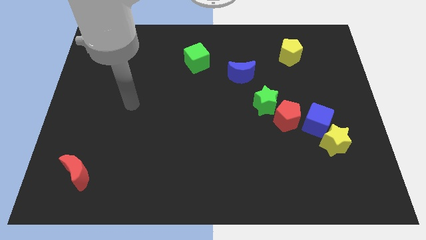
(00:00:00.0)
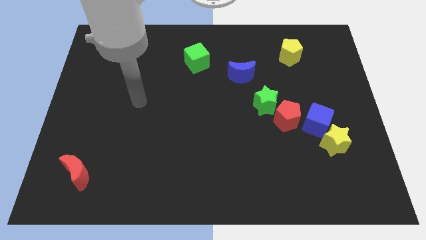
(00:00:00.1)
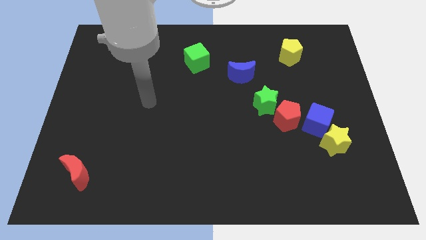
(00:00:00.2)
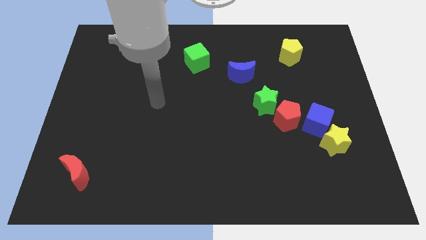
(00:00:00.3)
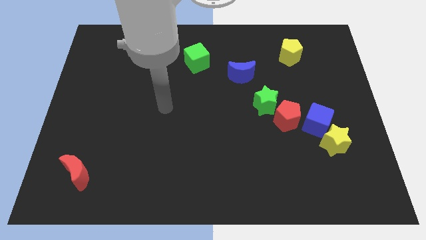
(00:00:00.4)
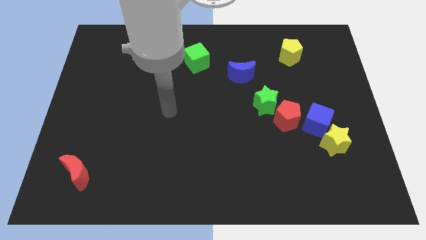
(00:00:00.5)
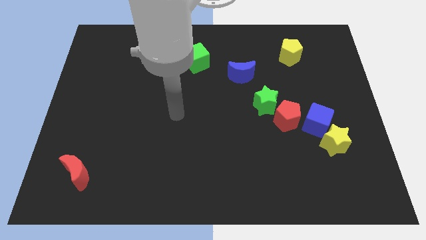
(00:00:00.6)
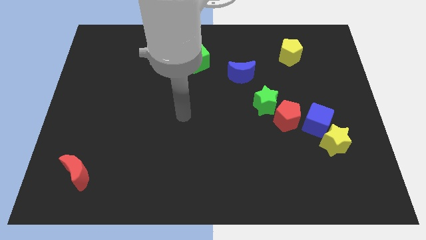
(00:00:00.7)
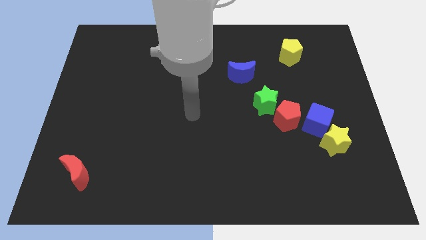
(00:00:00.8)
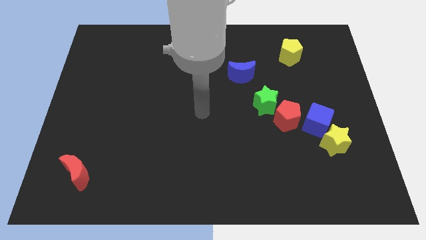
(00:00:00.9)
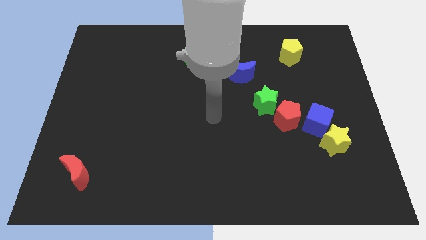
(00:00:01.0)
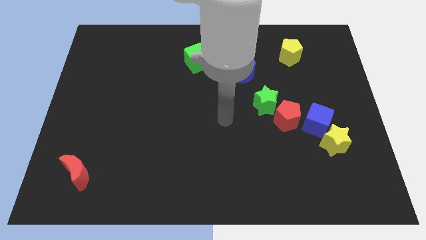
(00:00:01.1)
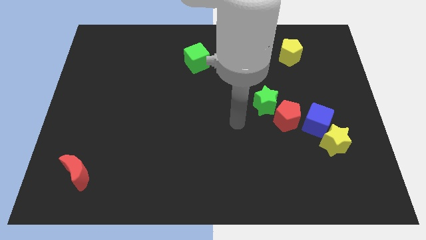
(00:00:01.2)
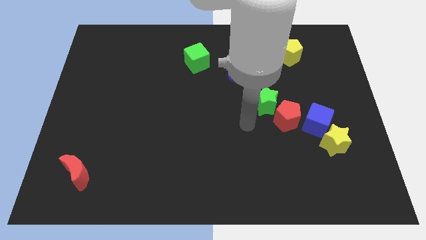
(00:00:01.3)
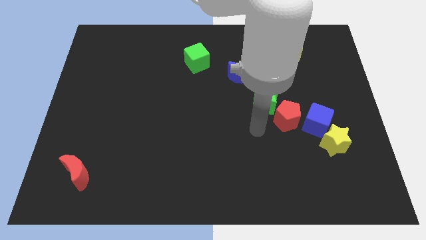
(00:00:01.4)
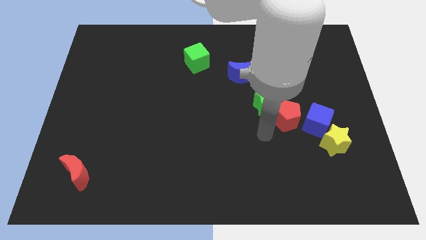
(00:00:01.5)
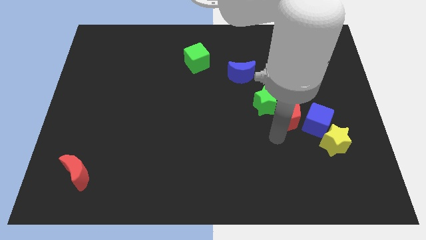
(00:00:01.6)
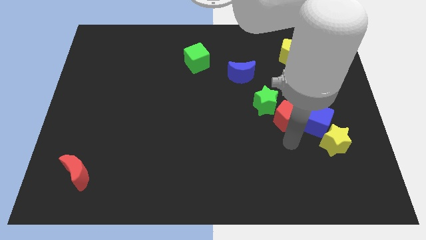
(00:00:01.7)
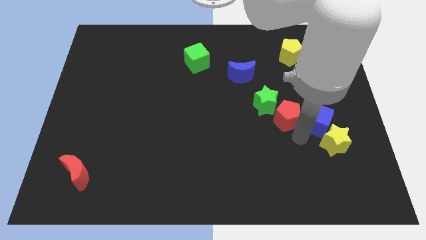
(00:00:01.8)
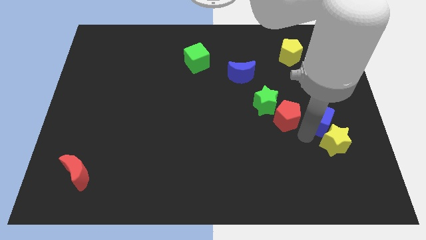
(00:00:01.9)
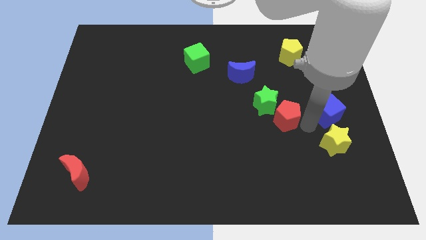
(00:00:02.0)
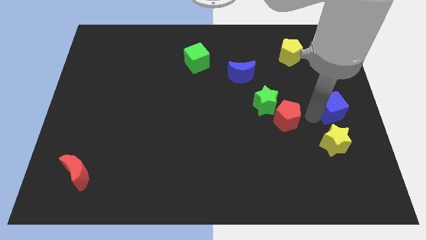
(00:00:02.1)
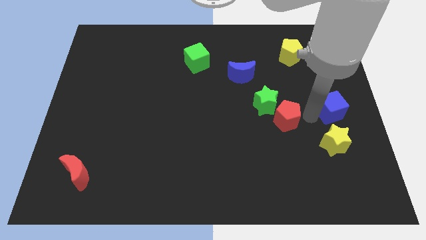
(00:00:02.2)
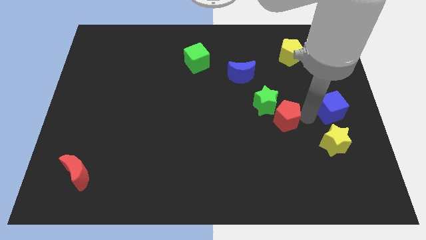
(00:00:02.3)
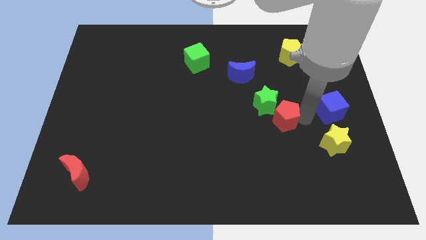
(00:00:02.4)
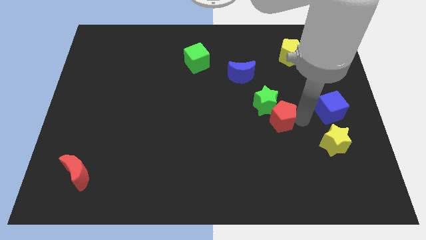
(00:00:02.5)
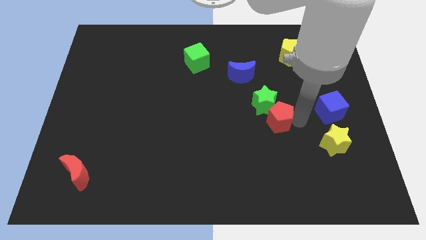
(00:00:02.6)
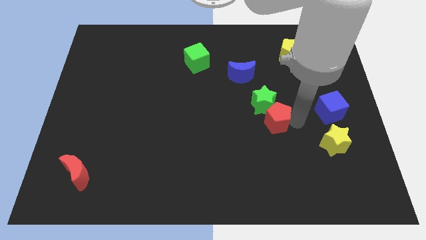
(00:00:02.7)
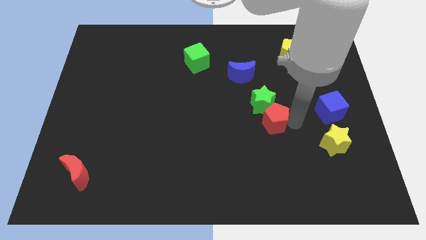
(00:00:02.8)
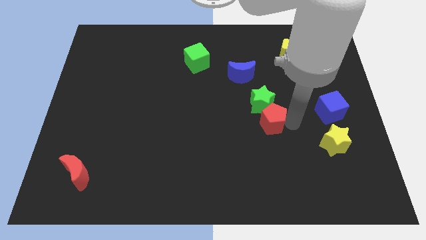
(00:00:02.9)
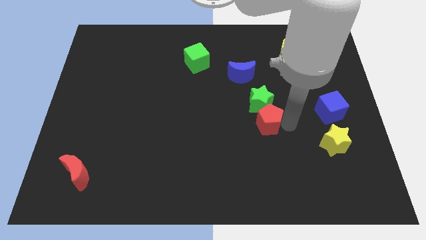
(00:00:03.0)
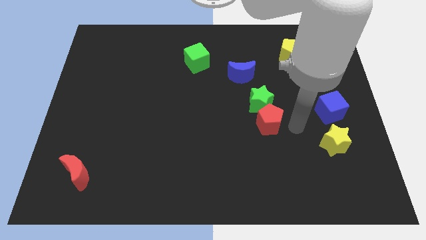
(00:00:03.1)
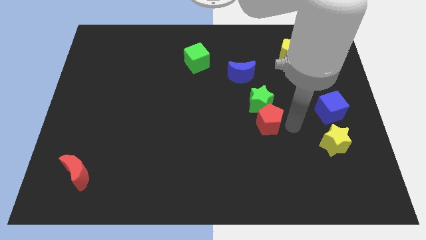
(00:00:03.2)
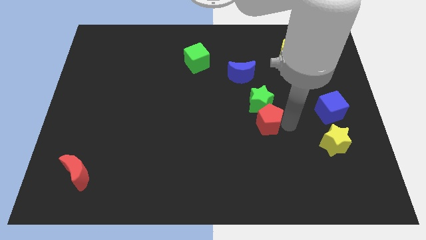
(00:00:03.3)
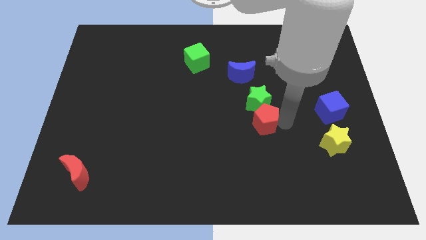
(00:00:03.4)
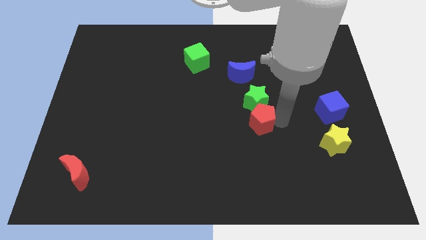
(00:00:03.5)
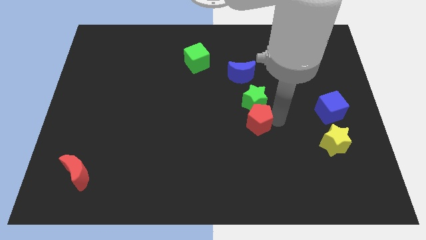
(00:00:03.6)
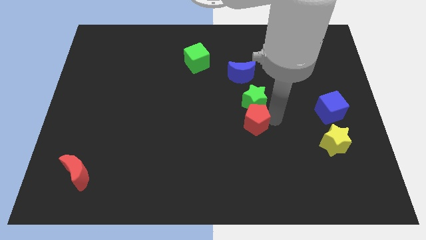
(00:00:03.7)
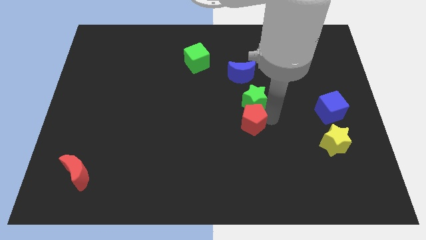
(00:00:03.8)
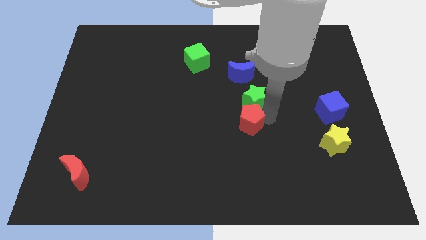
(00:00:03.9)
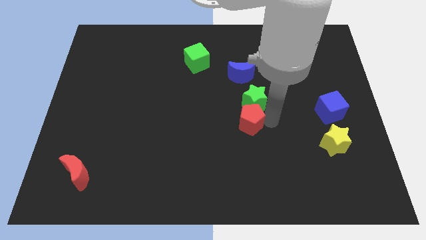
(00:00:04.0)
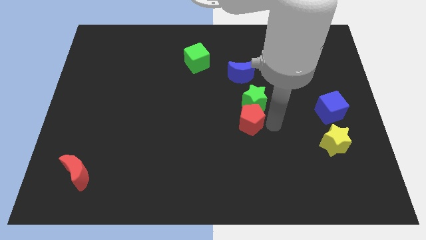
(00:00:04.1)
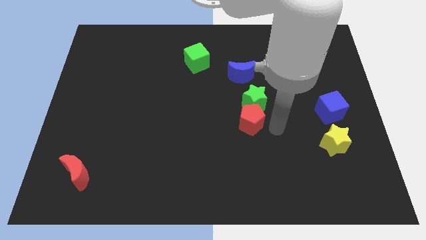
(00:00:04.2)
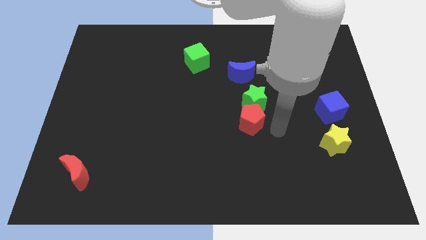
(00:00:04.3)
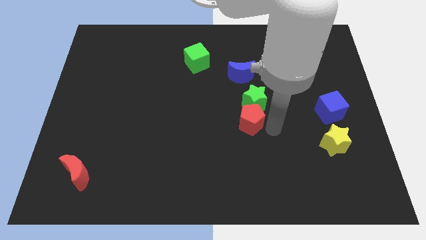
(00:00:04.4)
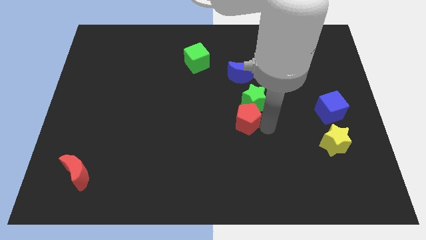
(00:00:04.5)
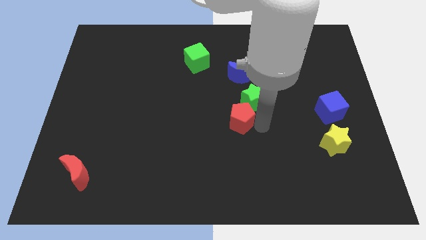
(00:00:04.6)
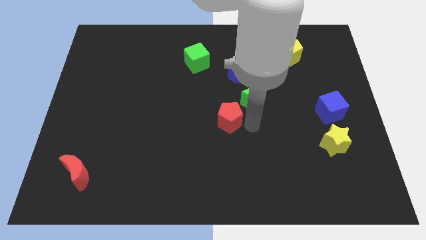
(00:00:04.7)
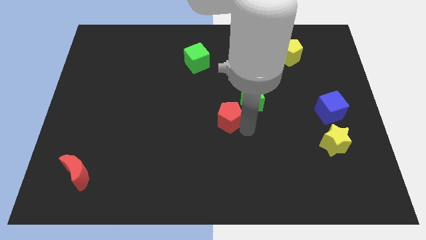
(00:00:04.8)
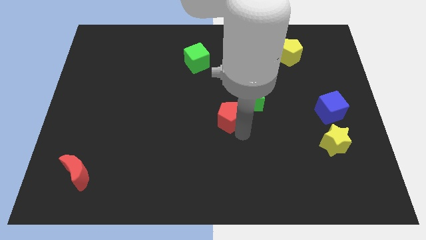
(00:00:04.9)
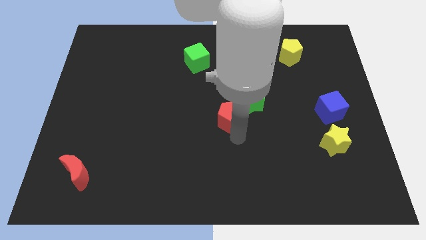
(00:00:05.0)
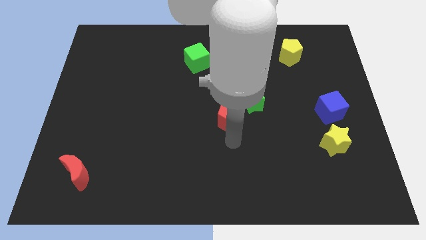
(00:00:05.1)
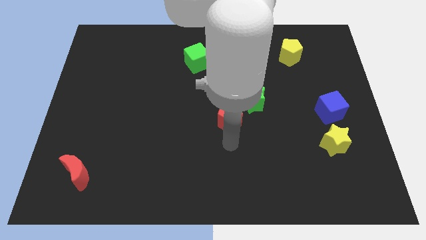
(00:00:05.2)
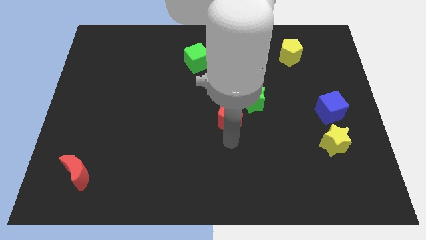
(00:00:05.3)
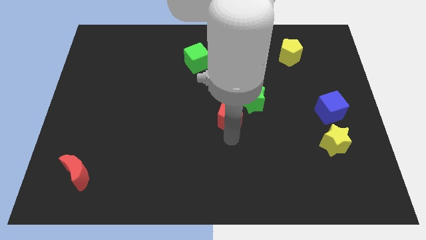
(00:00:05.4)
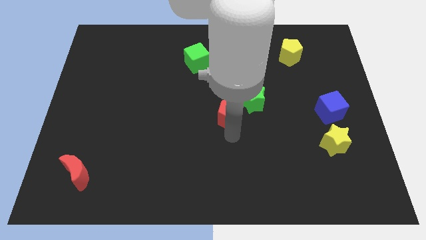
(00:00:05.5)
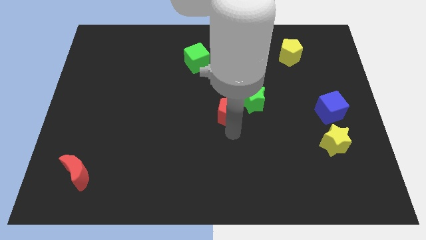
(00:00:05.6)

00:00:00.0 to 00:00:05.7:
slightly move the red pentagon diagonally upwards and to the left

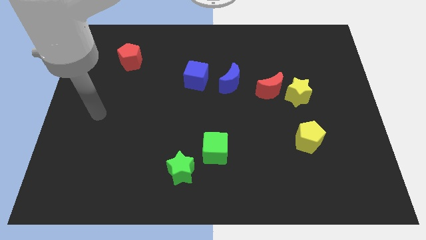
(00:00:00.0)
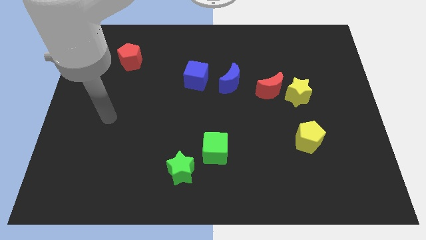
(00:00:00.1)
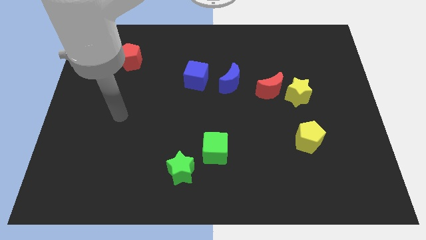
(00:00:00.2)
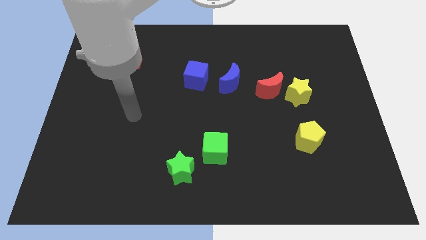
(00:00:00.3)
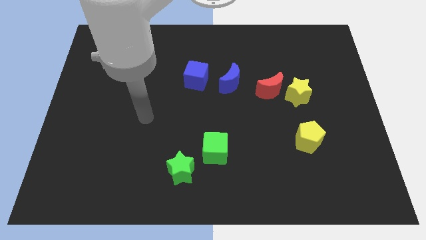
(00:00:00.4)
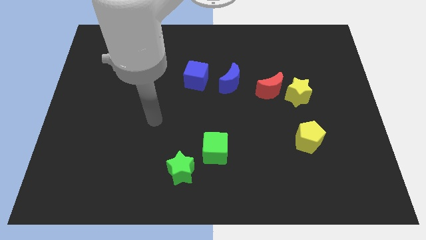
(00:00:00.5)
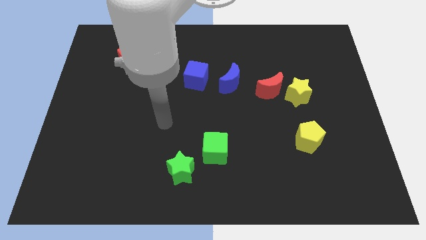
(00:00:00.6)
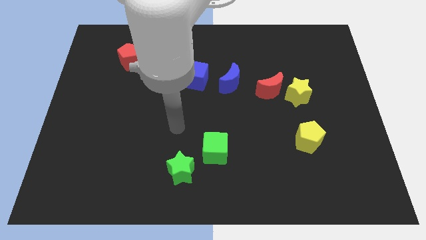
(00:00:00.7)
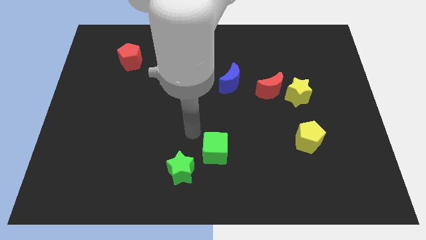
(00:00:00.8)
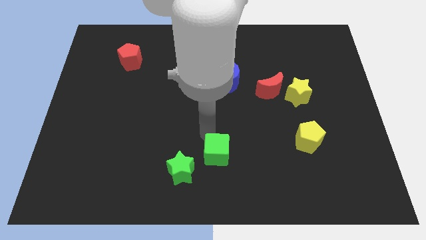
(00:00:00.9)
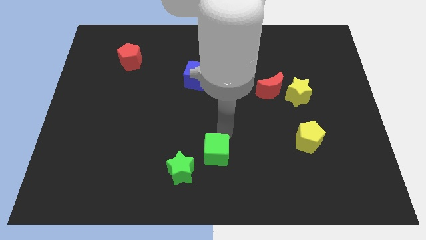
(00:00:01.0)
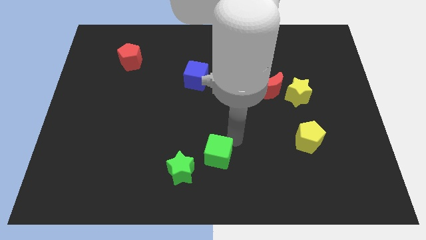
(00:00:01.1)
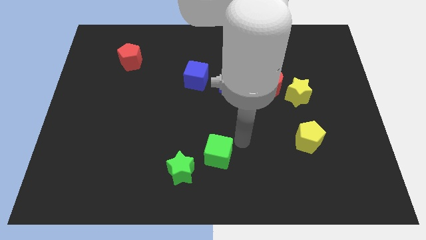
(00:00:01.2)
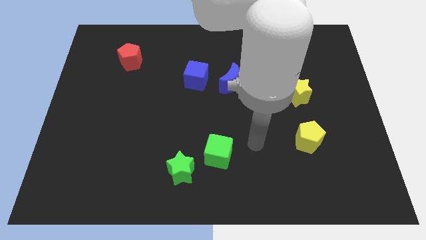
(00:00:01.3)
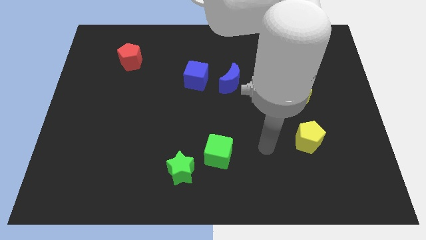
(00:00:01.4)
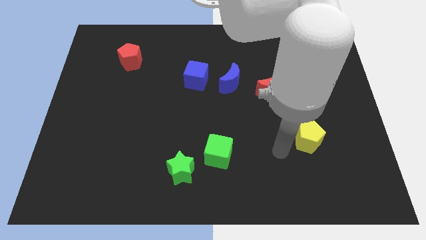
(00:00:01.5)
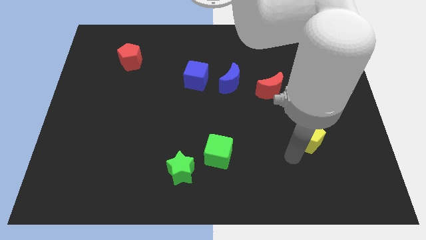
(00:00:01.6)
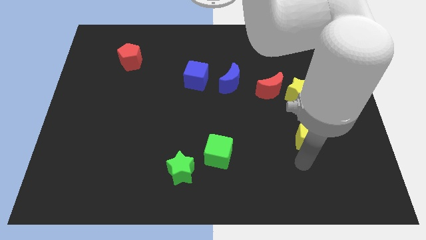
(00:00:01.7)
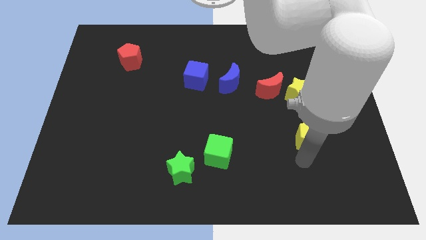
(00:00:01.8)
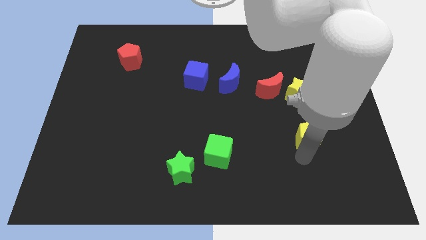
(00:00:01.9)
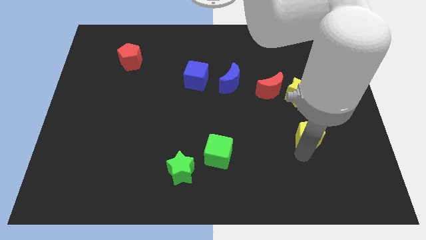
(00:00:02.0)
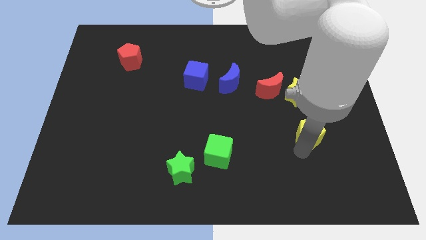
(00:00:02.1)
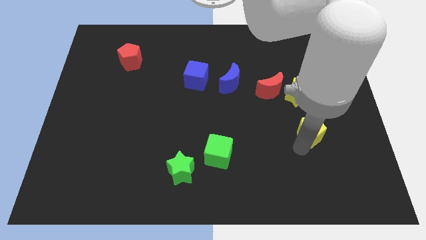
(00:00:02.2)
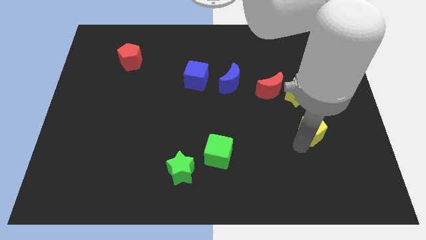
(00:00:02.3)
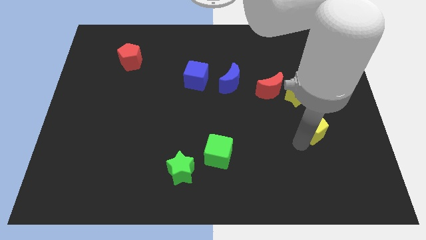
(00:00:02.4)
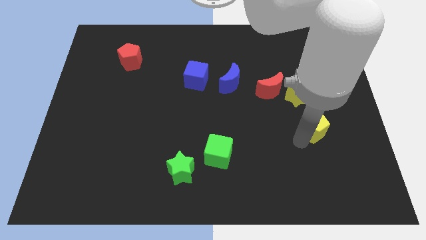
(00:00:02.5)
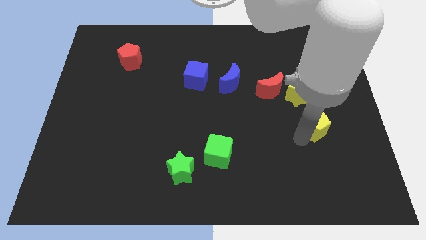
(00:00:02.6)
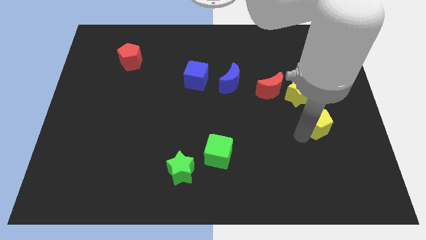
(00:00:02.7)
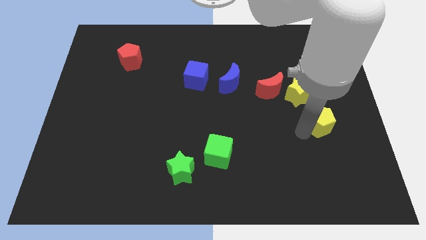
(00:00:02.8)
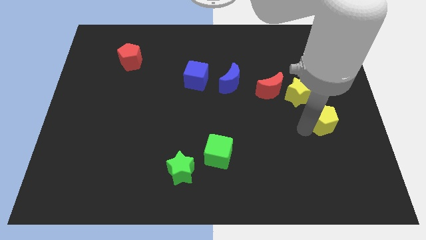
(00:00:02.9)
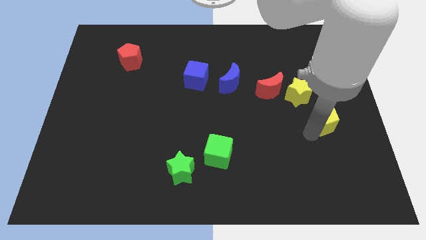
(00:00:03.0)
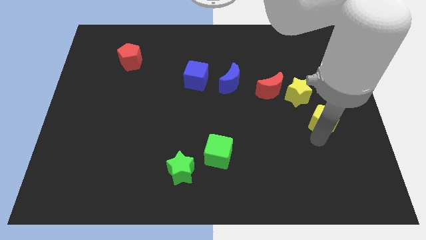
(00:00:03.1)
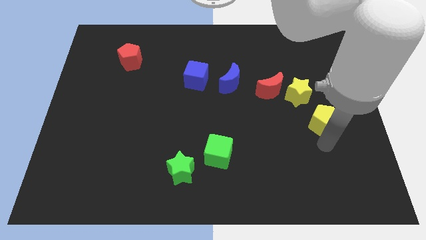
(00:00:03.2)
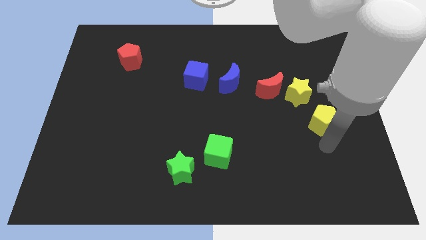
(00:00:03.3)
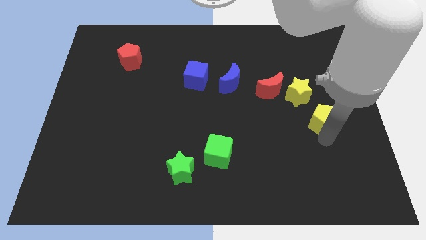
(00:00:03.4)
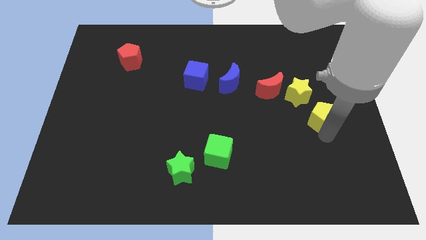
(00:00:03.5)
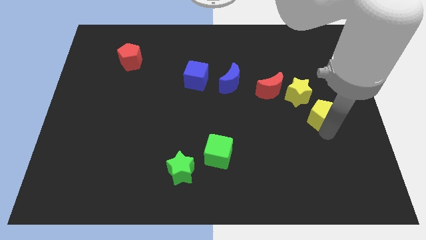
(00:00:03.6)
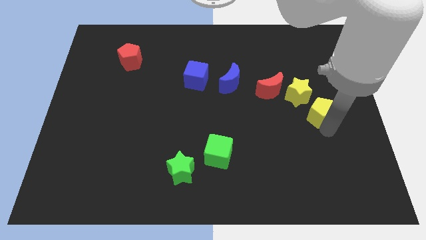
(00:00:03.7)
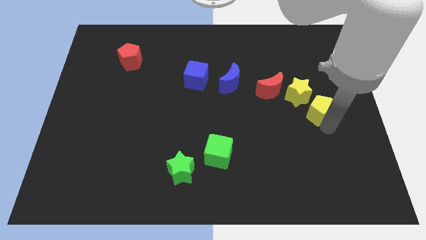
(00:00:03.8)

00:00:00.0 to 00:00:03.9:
slide the yellow pentagon up a little bit
